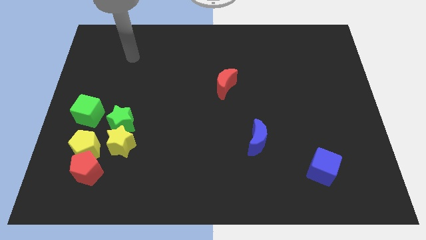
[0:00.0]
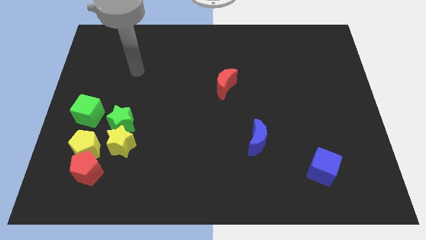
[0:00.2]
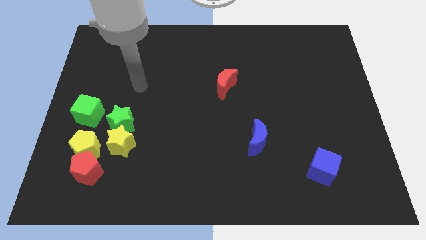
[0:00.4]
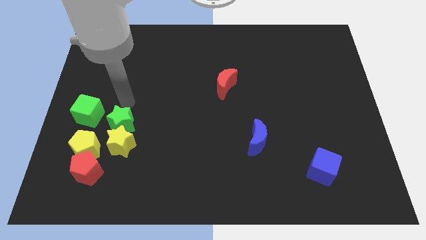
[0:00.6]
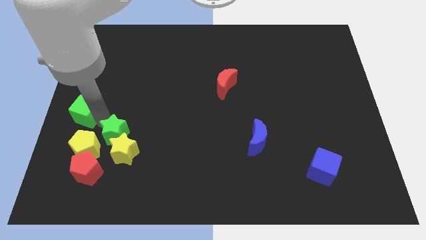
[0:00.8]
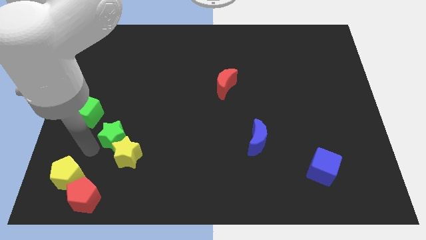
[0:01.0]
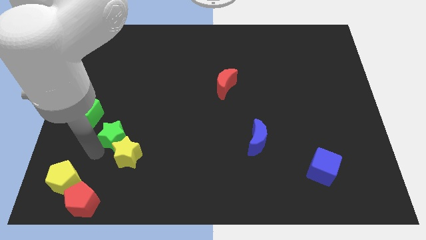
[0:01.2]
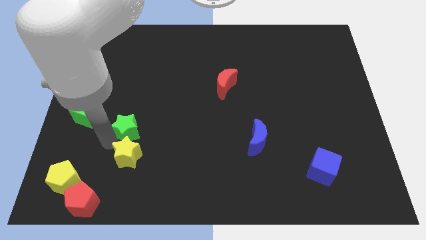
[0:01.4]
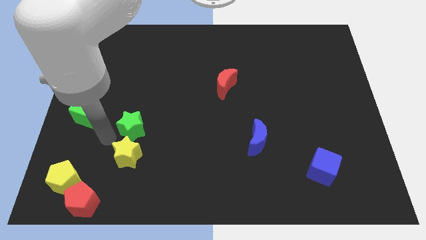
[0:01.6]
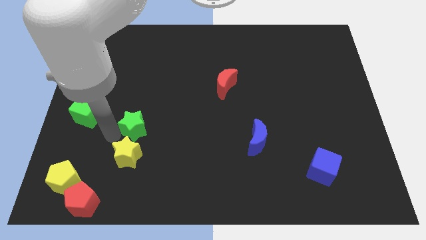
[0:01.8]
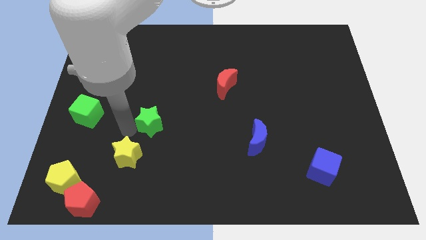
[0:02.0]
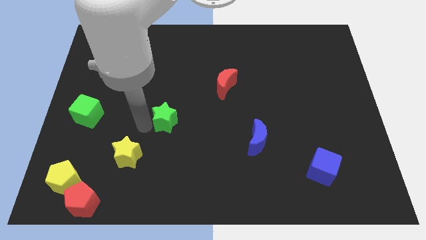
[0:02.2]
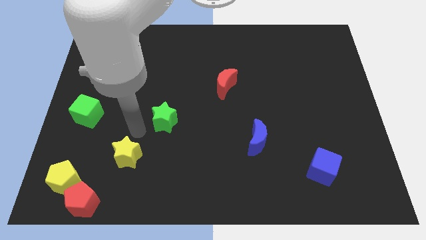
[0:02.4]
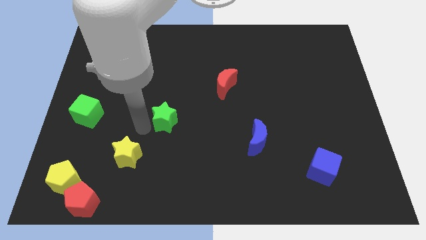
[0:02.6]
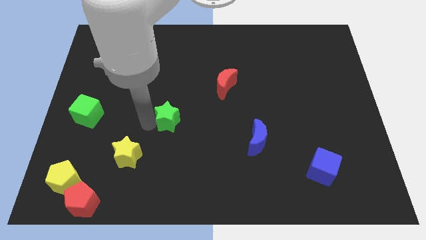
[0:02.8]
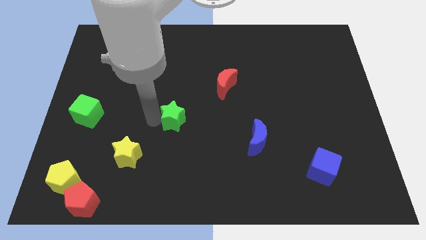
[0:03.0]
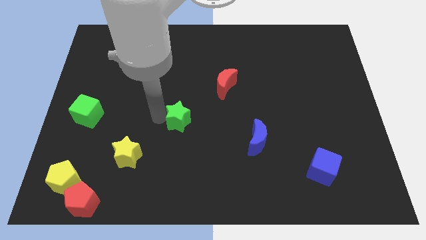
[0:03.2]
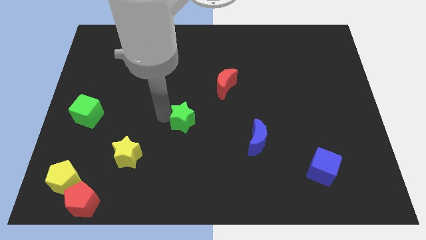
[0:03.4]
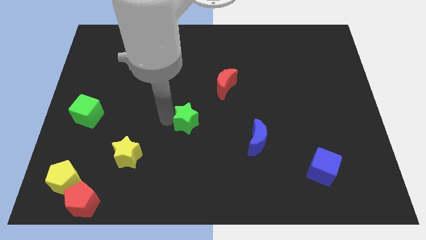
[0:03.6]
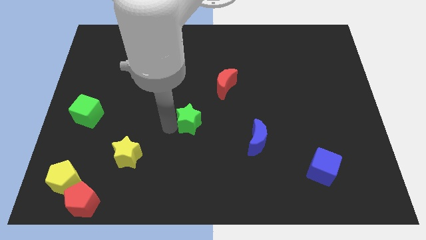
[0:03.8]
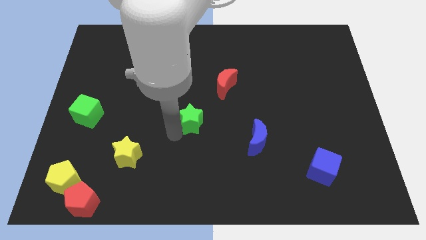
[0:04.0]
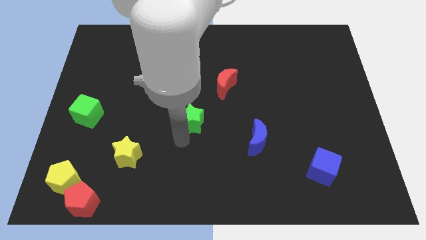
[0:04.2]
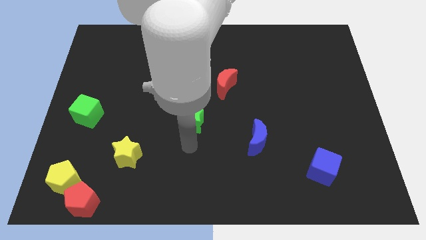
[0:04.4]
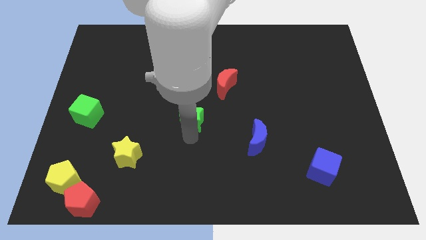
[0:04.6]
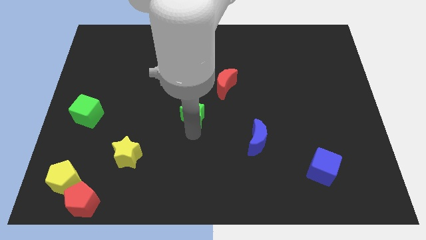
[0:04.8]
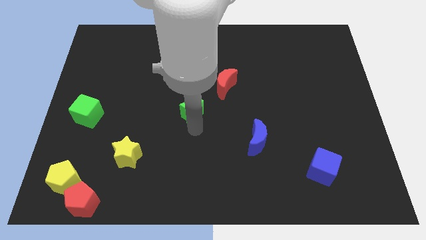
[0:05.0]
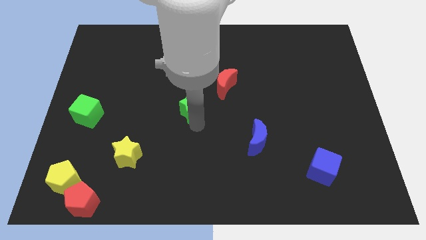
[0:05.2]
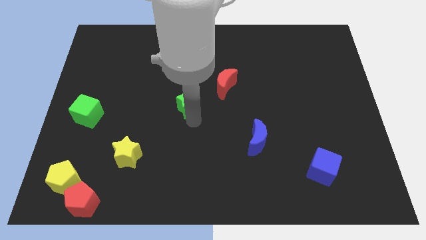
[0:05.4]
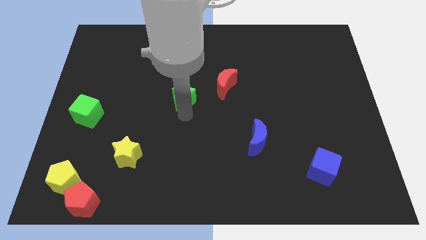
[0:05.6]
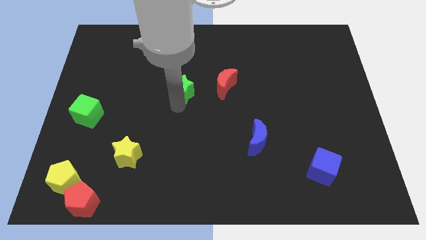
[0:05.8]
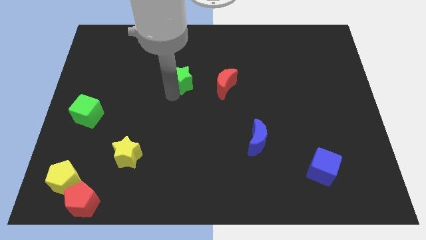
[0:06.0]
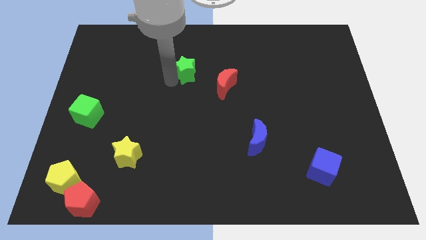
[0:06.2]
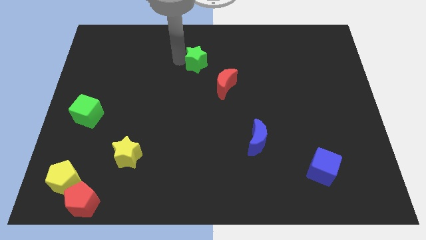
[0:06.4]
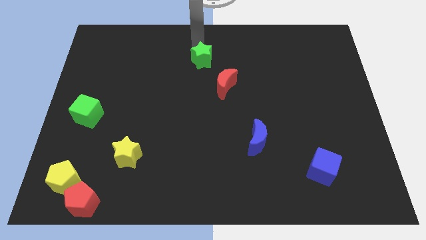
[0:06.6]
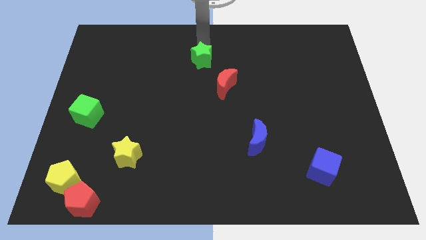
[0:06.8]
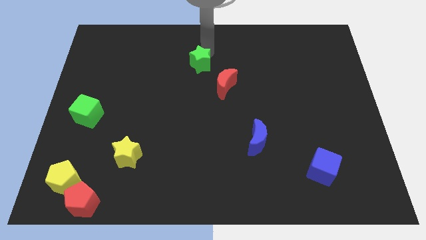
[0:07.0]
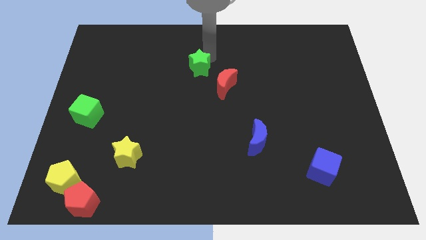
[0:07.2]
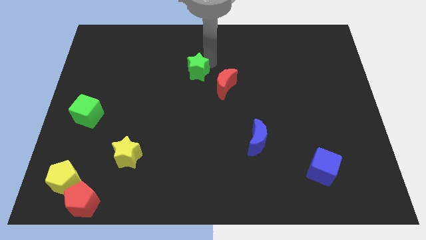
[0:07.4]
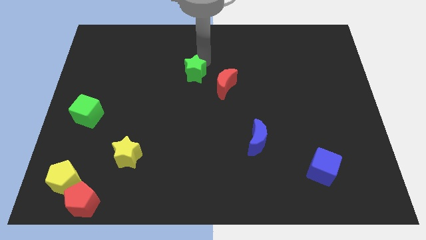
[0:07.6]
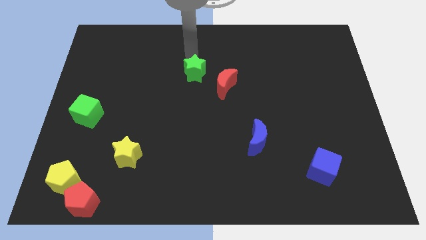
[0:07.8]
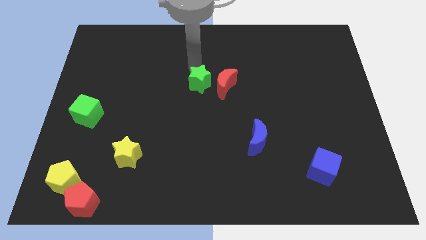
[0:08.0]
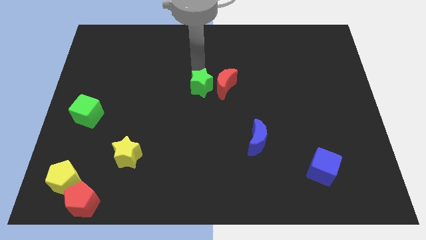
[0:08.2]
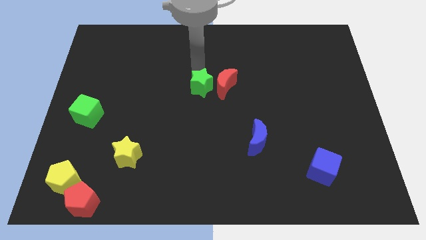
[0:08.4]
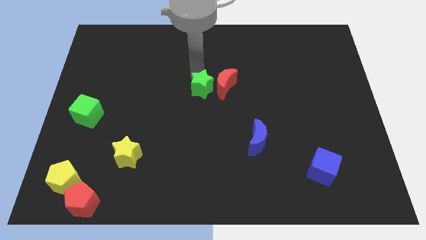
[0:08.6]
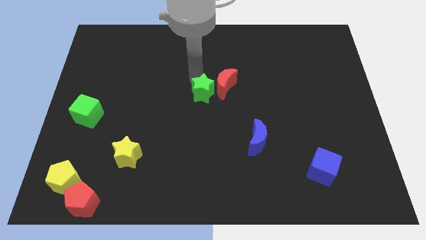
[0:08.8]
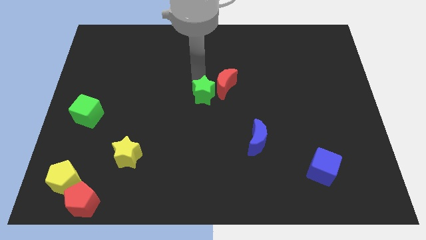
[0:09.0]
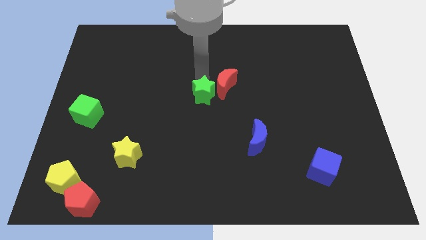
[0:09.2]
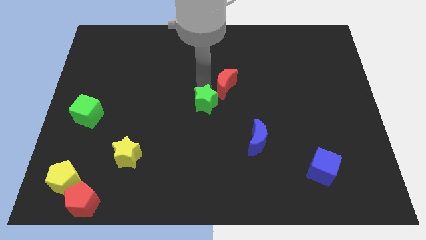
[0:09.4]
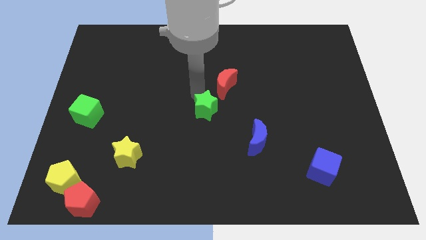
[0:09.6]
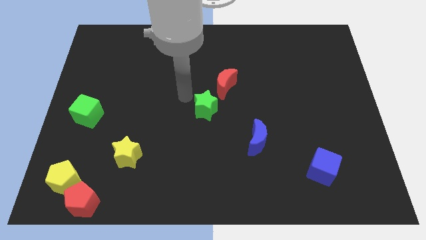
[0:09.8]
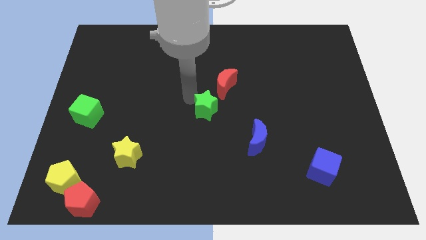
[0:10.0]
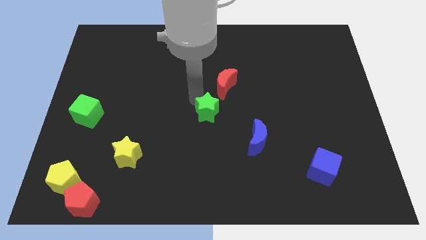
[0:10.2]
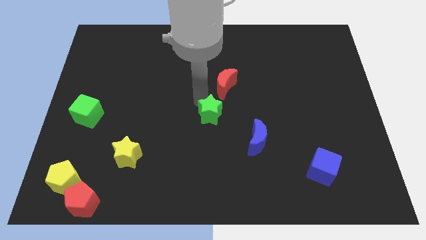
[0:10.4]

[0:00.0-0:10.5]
push the green star right

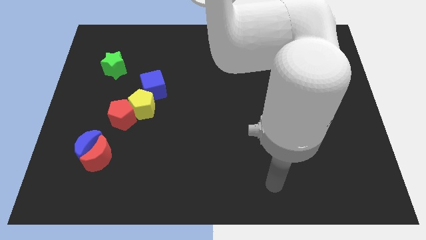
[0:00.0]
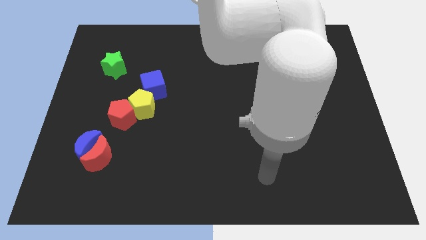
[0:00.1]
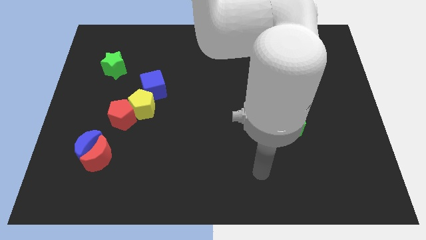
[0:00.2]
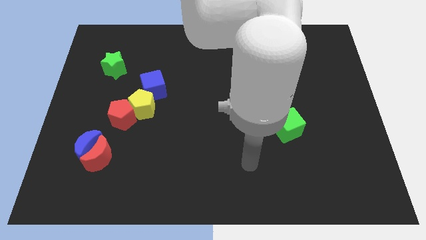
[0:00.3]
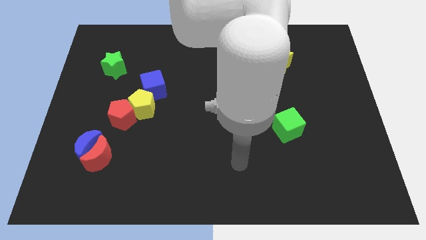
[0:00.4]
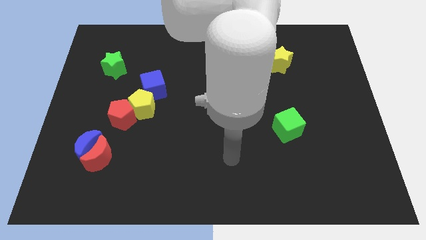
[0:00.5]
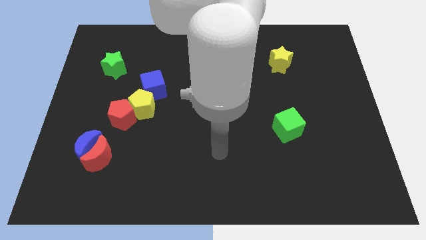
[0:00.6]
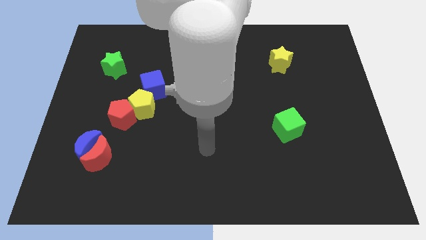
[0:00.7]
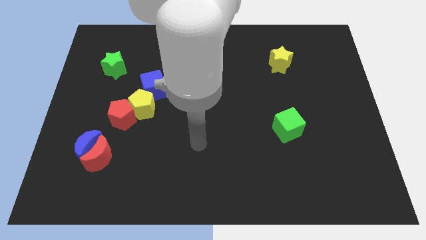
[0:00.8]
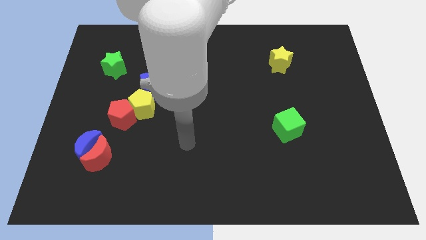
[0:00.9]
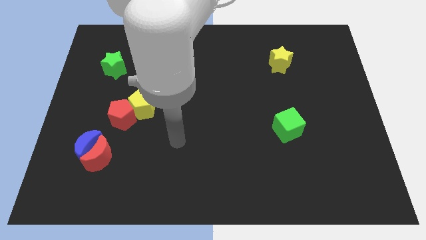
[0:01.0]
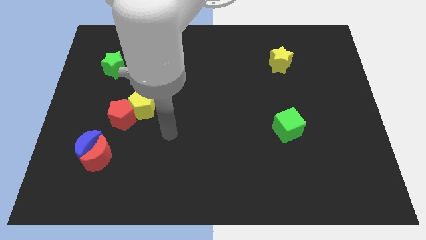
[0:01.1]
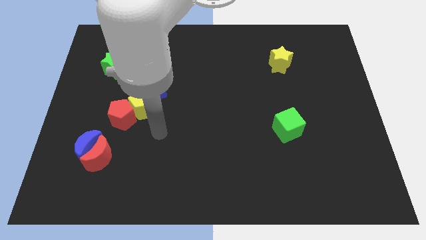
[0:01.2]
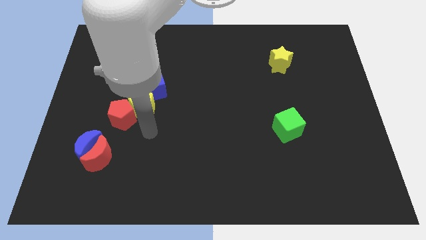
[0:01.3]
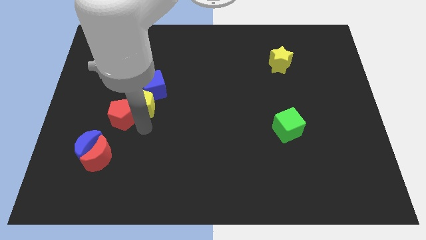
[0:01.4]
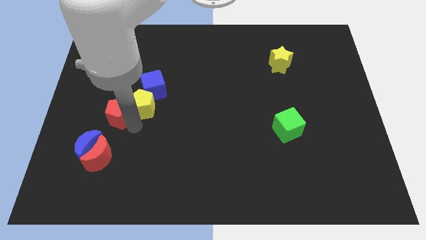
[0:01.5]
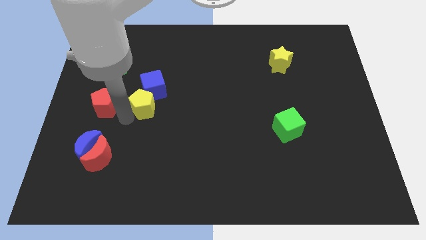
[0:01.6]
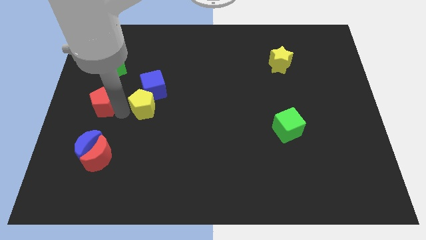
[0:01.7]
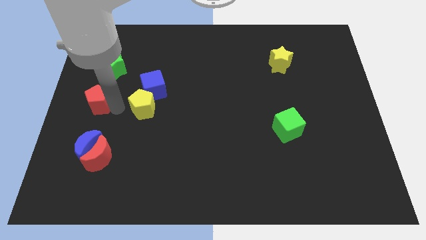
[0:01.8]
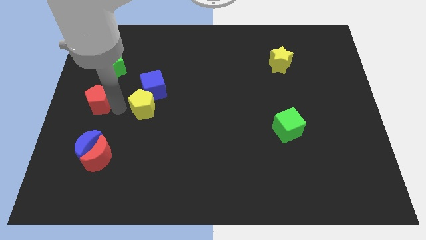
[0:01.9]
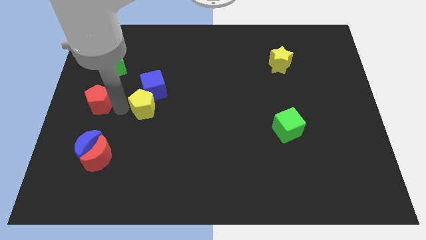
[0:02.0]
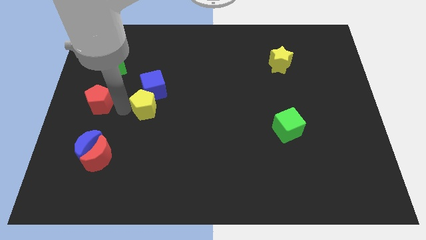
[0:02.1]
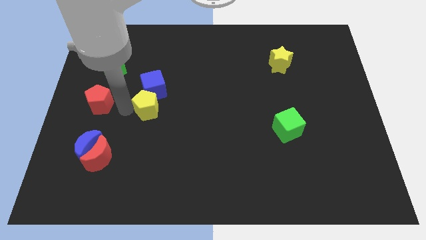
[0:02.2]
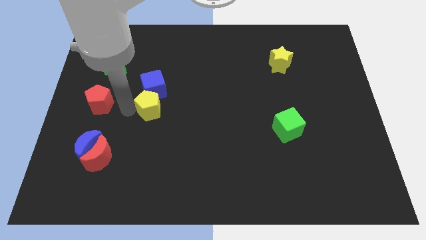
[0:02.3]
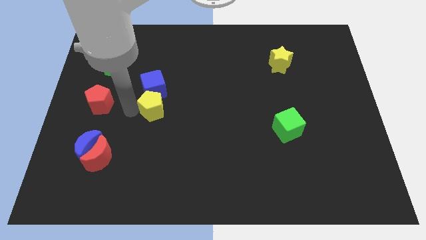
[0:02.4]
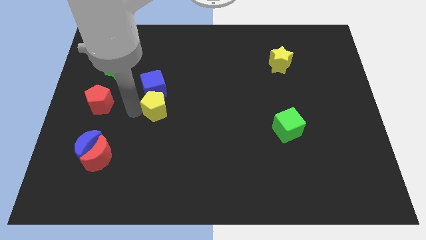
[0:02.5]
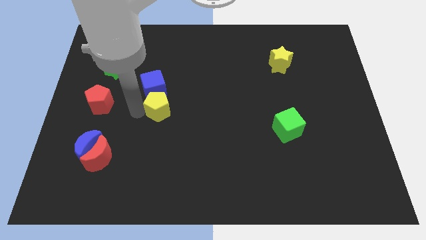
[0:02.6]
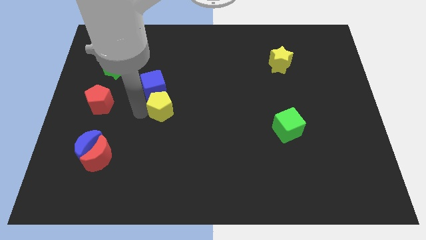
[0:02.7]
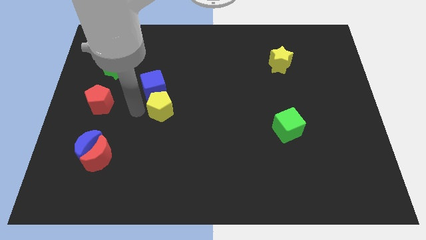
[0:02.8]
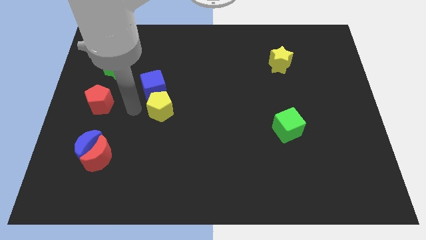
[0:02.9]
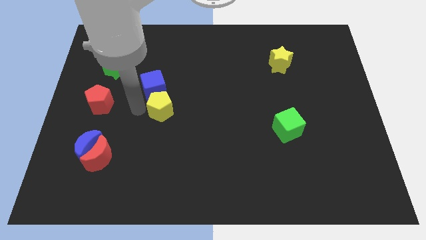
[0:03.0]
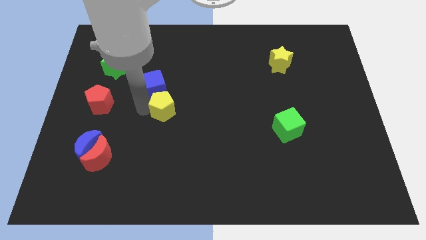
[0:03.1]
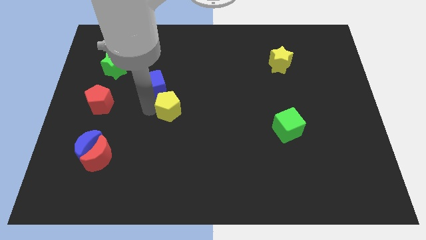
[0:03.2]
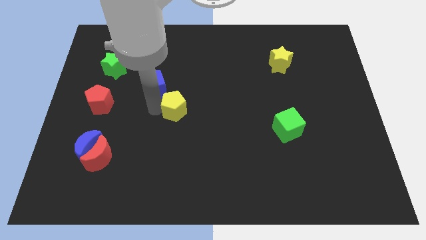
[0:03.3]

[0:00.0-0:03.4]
move the yellow pentagon right a bit
